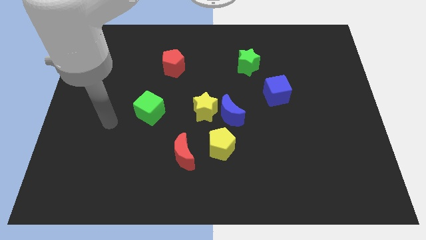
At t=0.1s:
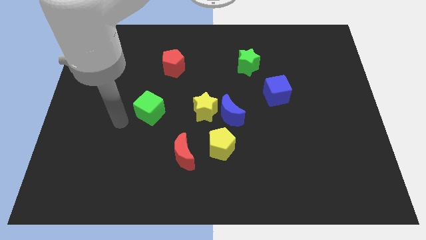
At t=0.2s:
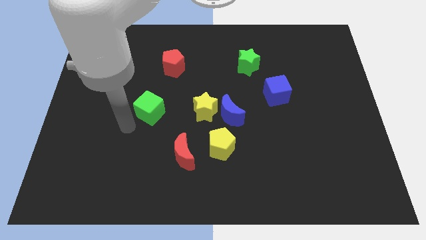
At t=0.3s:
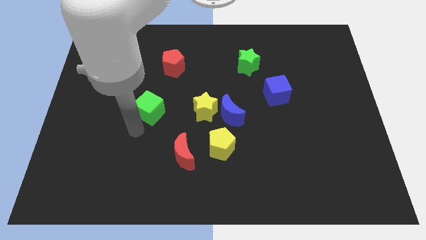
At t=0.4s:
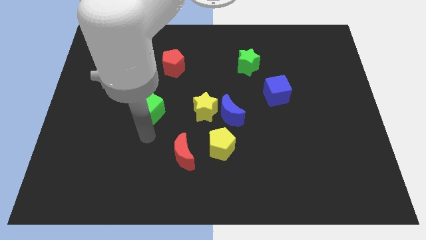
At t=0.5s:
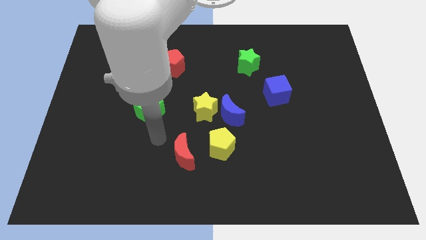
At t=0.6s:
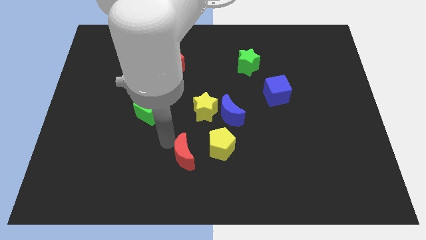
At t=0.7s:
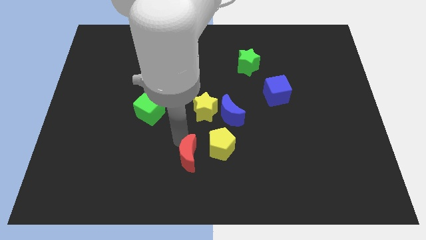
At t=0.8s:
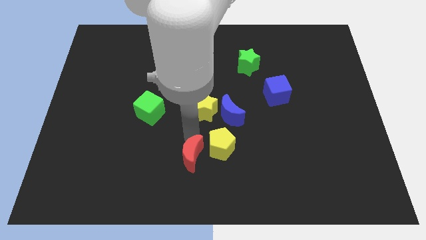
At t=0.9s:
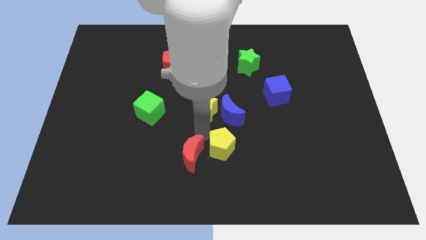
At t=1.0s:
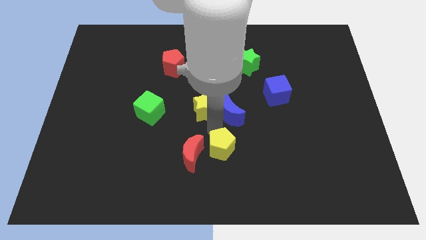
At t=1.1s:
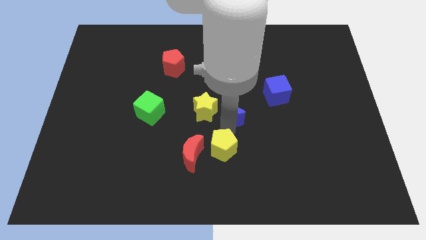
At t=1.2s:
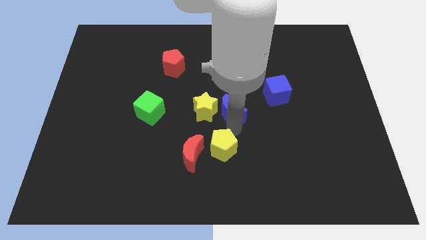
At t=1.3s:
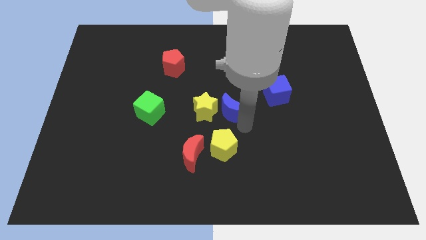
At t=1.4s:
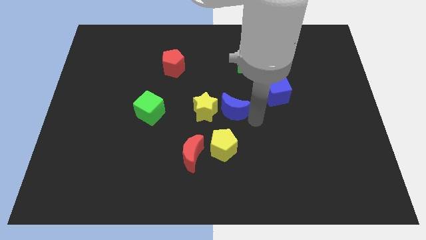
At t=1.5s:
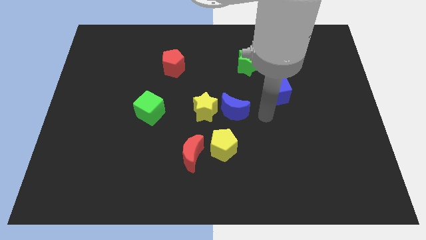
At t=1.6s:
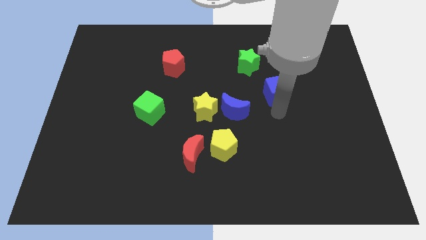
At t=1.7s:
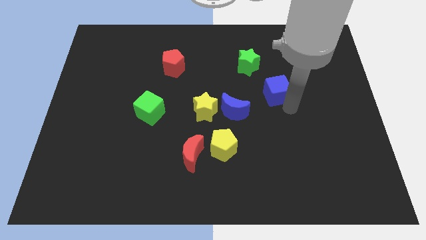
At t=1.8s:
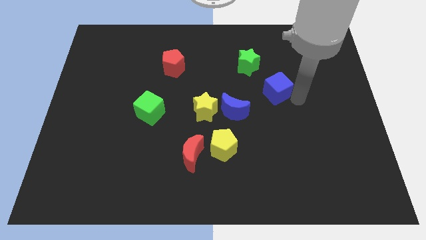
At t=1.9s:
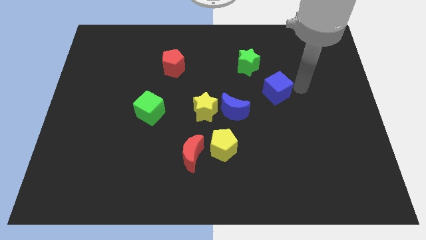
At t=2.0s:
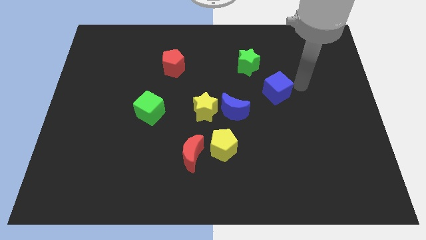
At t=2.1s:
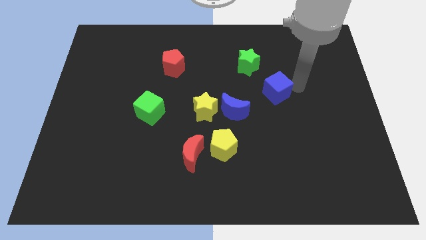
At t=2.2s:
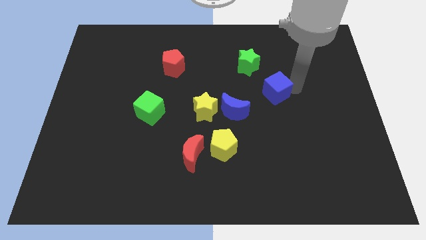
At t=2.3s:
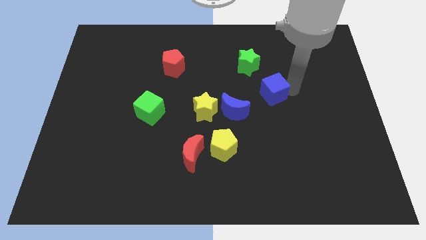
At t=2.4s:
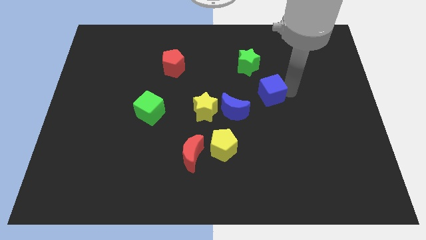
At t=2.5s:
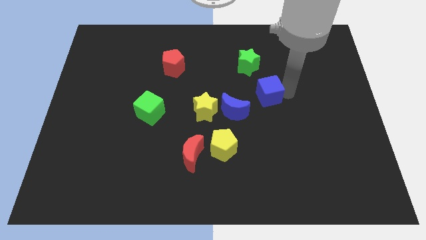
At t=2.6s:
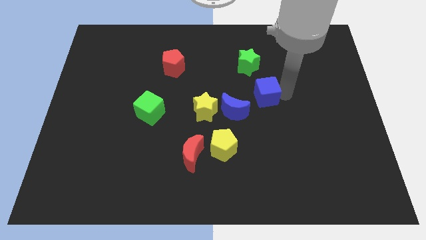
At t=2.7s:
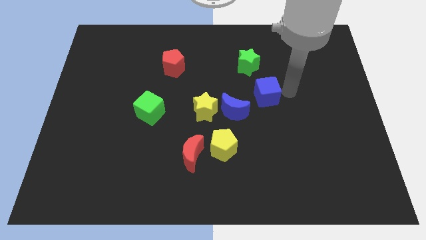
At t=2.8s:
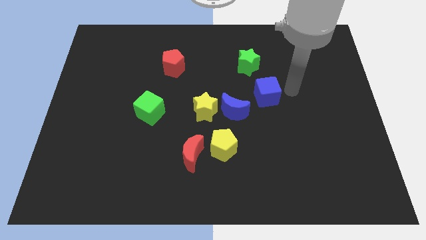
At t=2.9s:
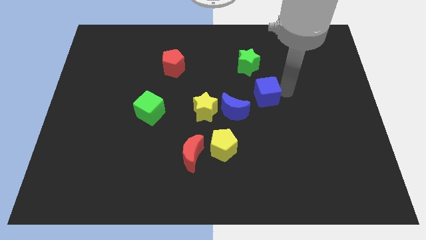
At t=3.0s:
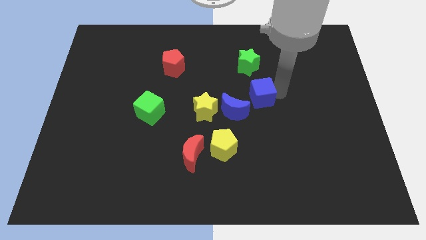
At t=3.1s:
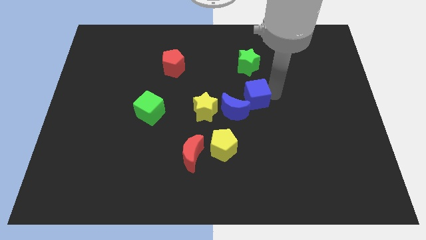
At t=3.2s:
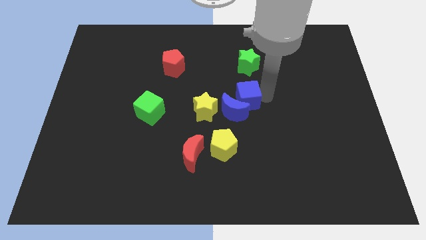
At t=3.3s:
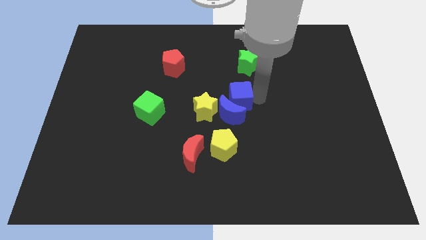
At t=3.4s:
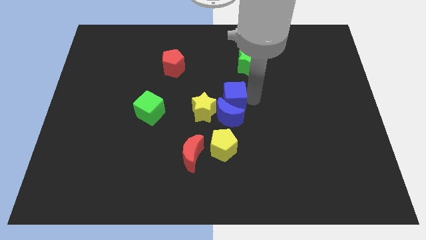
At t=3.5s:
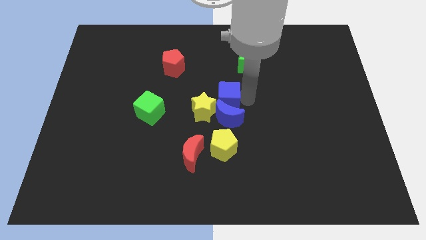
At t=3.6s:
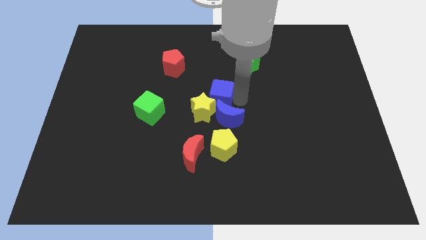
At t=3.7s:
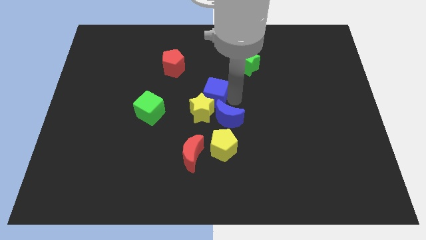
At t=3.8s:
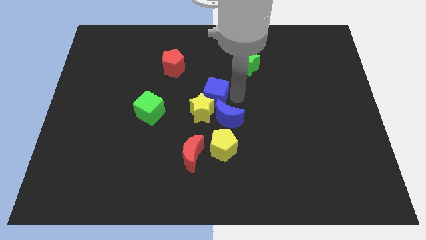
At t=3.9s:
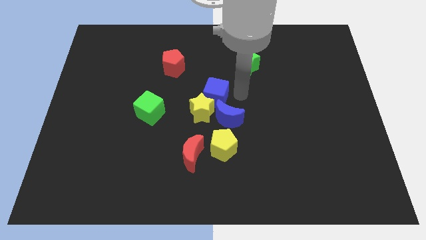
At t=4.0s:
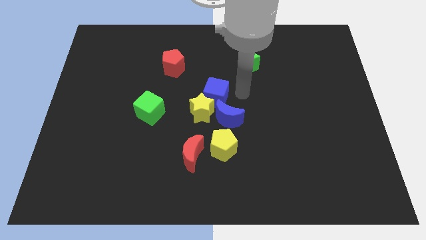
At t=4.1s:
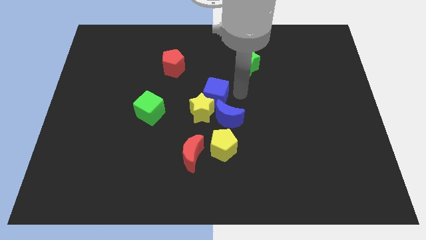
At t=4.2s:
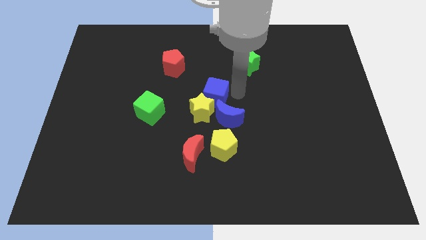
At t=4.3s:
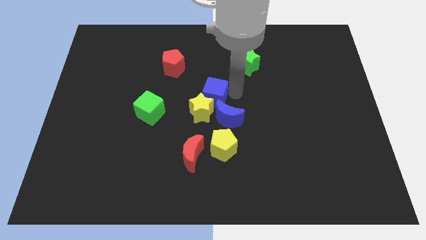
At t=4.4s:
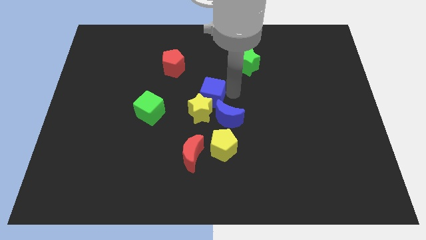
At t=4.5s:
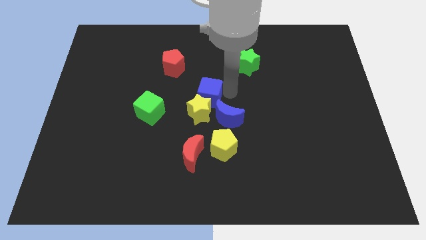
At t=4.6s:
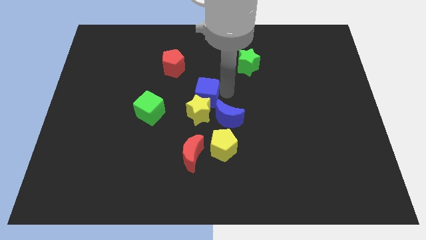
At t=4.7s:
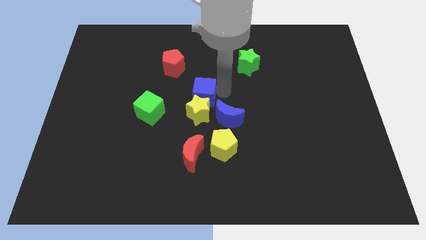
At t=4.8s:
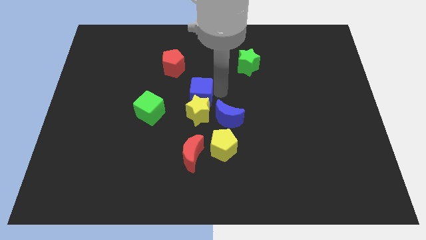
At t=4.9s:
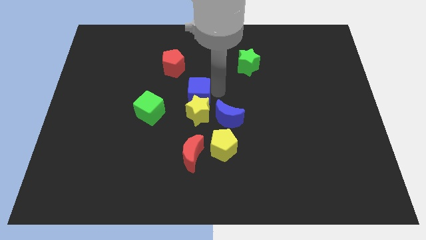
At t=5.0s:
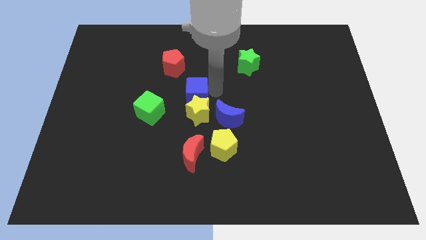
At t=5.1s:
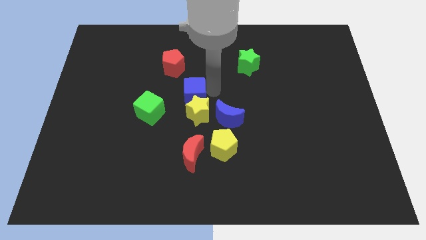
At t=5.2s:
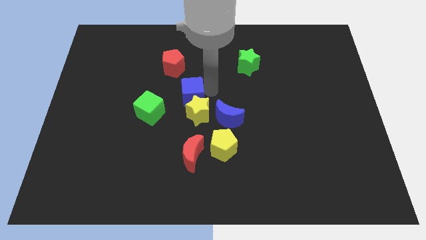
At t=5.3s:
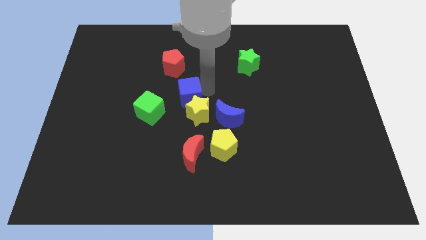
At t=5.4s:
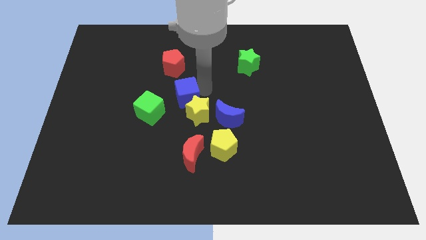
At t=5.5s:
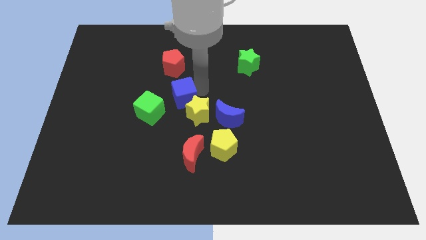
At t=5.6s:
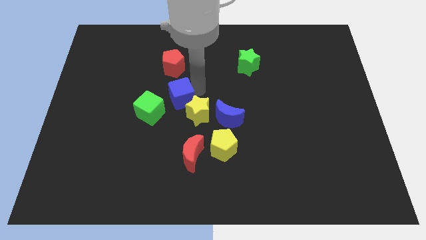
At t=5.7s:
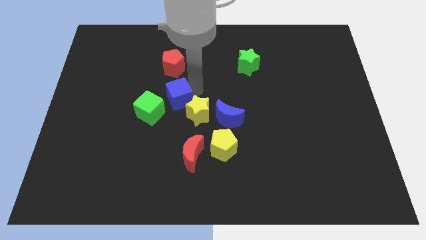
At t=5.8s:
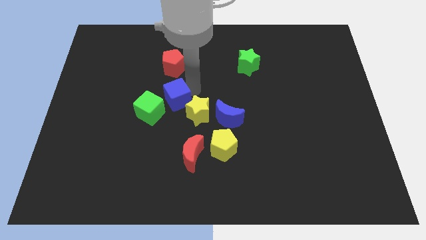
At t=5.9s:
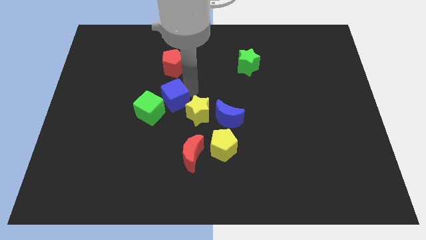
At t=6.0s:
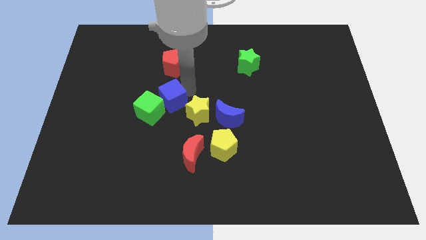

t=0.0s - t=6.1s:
push the blue cube close to the green cube
